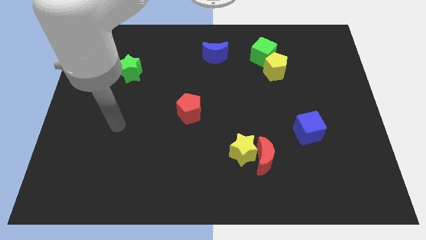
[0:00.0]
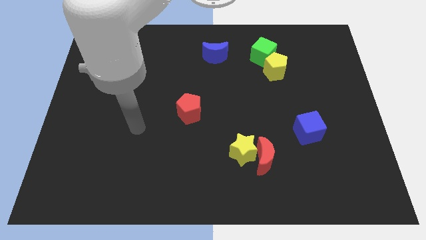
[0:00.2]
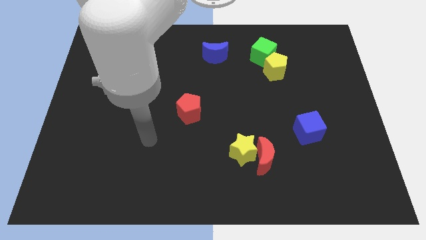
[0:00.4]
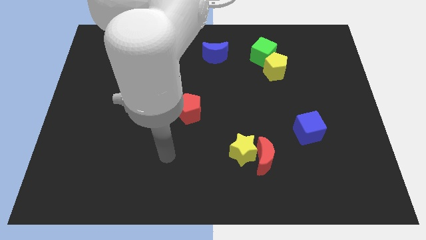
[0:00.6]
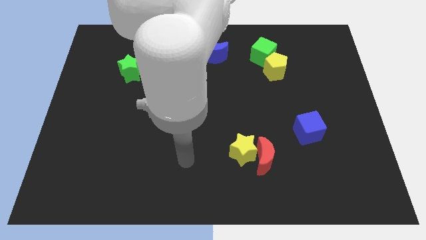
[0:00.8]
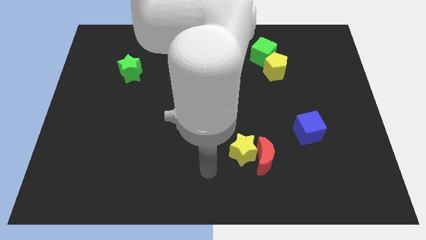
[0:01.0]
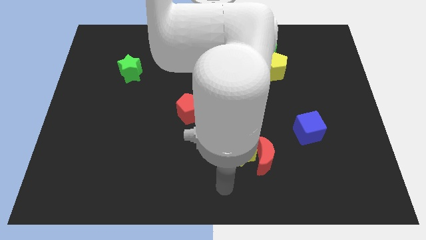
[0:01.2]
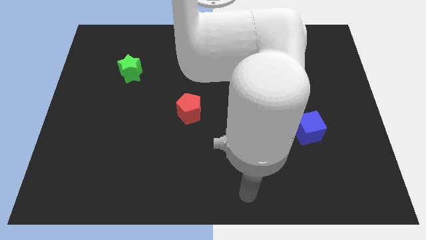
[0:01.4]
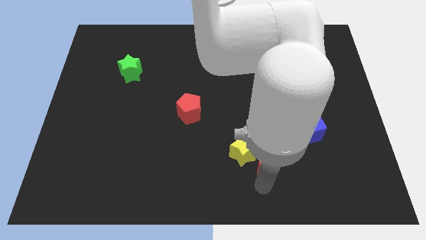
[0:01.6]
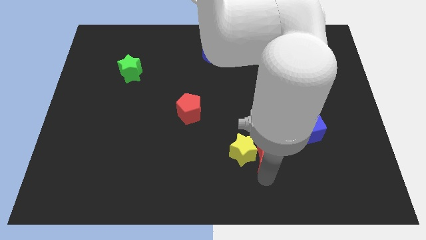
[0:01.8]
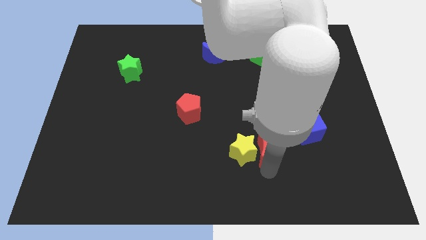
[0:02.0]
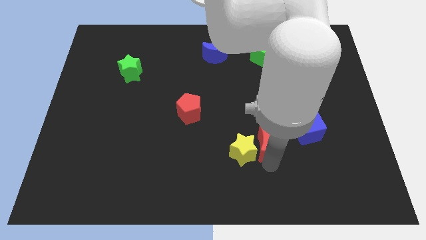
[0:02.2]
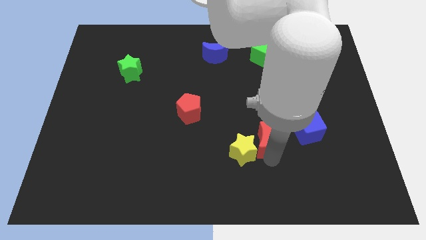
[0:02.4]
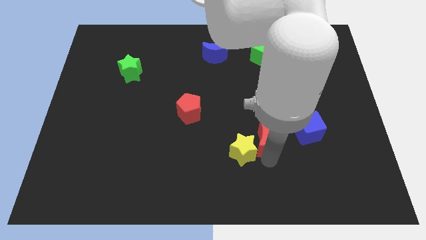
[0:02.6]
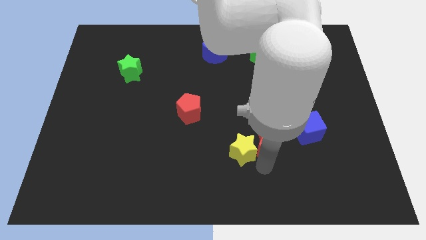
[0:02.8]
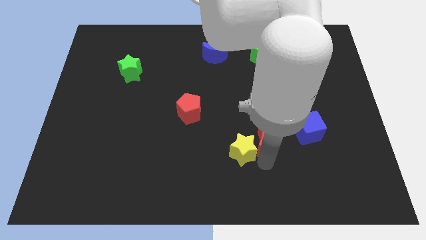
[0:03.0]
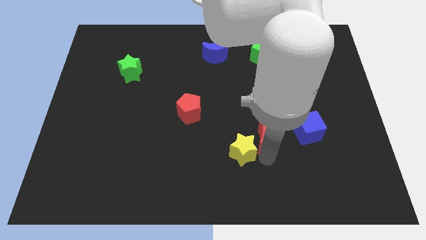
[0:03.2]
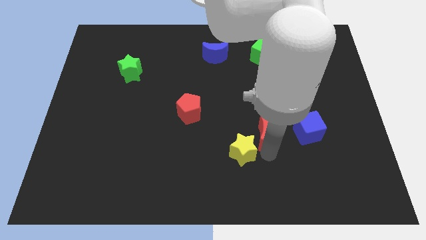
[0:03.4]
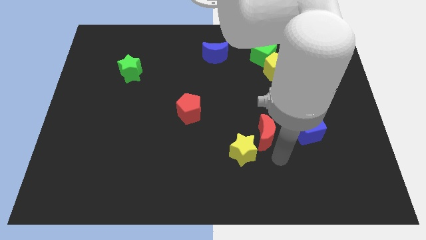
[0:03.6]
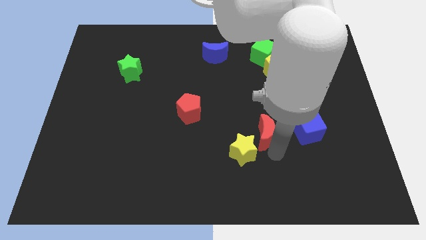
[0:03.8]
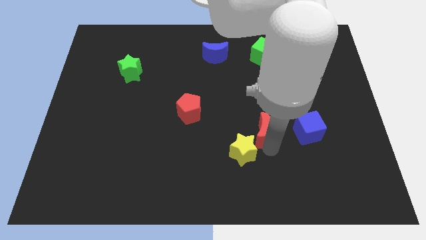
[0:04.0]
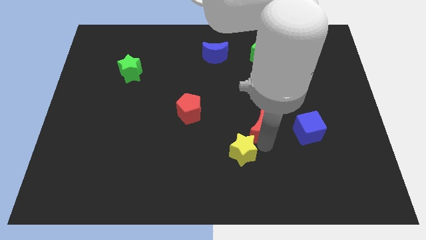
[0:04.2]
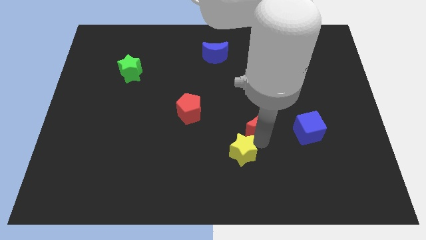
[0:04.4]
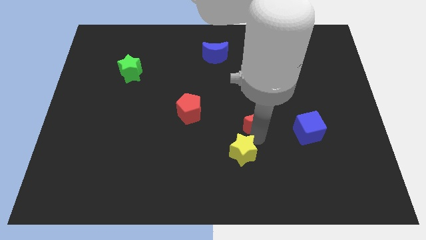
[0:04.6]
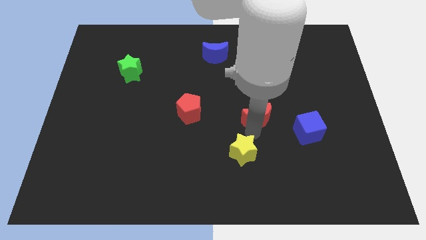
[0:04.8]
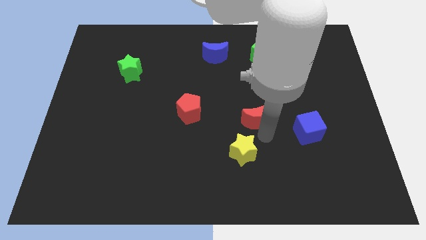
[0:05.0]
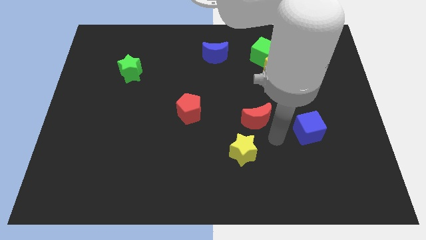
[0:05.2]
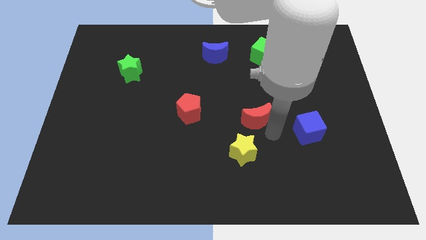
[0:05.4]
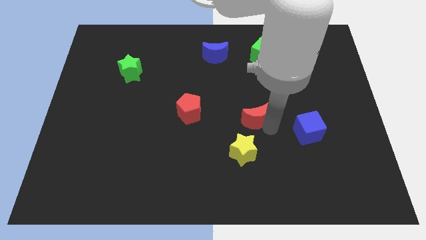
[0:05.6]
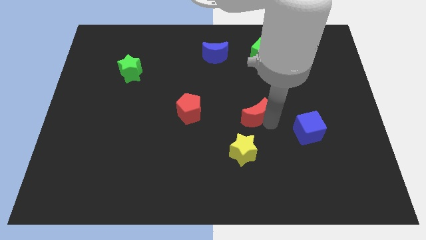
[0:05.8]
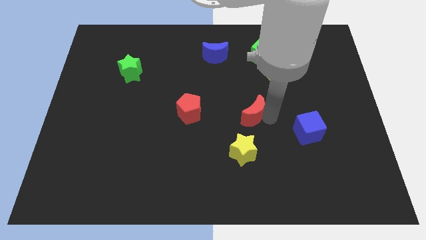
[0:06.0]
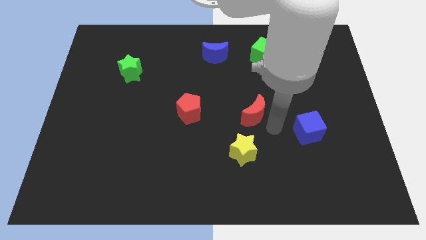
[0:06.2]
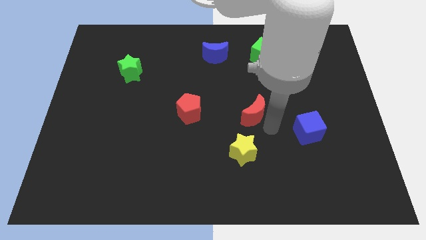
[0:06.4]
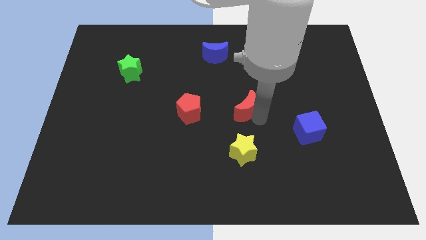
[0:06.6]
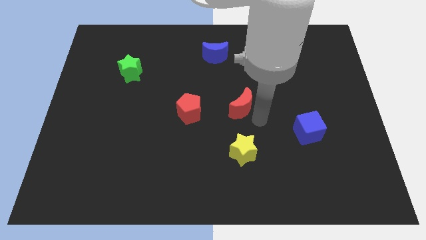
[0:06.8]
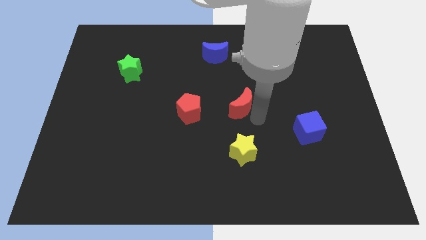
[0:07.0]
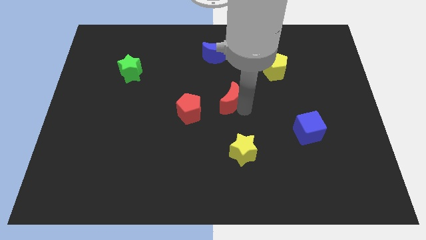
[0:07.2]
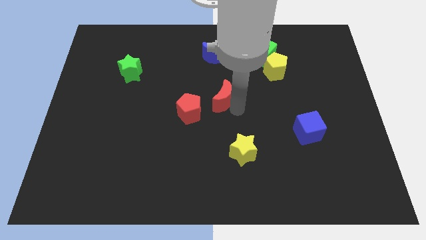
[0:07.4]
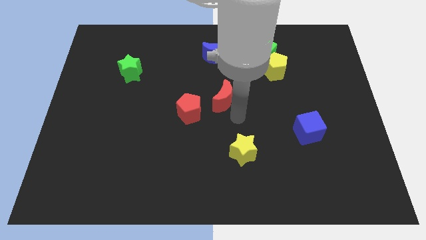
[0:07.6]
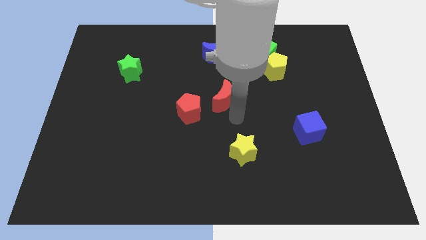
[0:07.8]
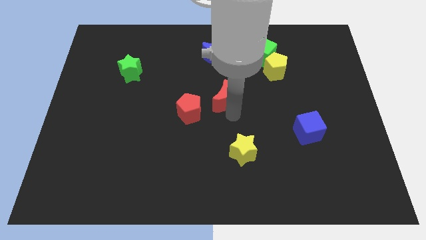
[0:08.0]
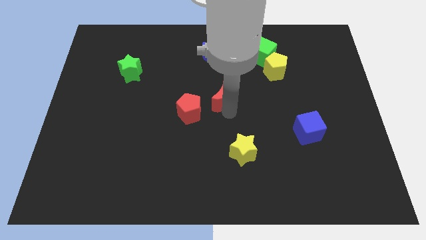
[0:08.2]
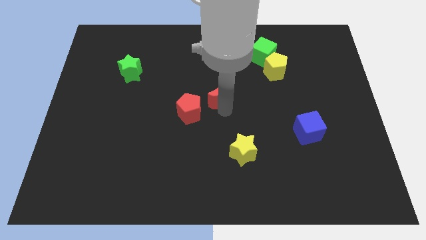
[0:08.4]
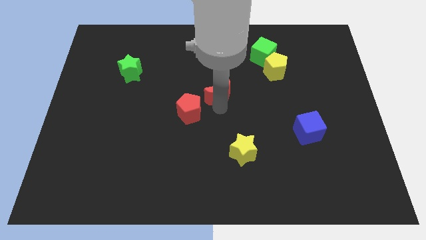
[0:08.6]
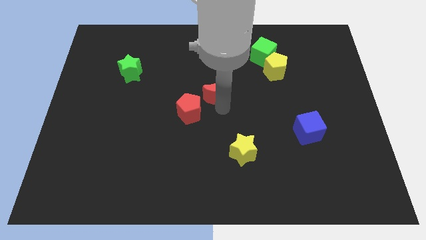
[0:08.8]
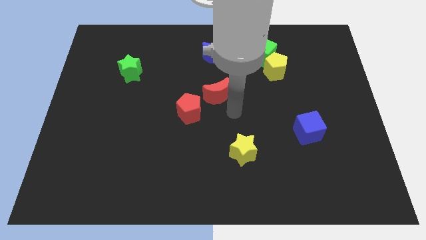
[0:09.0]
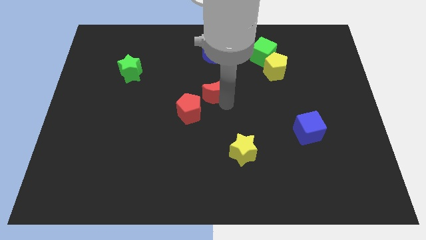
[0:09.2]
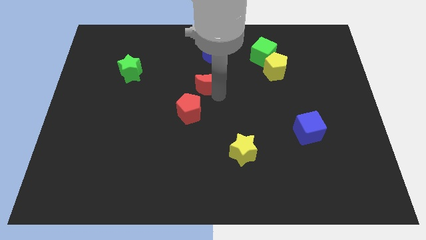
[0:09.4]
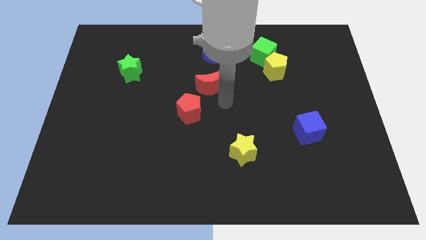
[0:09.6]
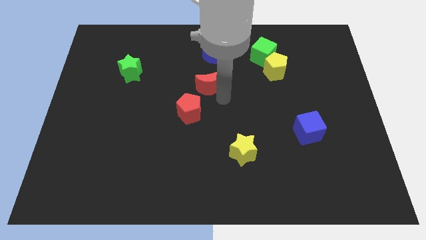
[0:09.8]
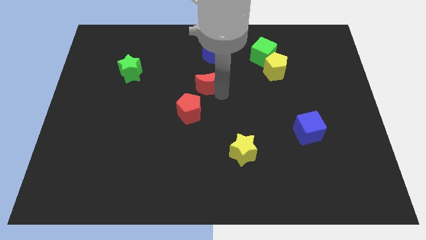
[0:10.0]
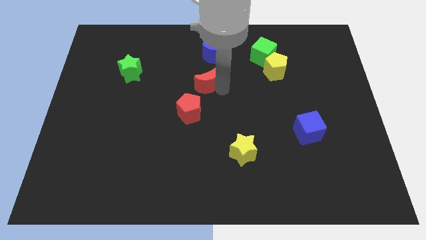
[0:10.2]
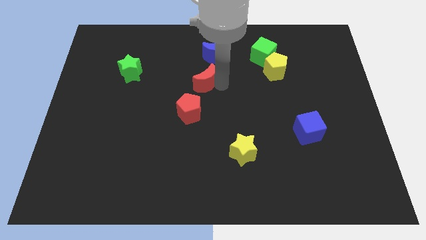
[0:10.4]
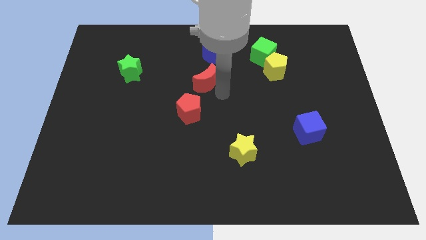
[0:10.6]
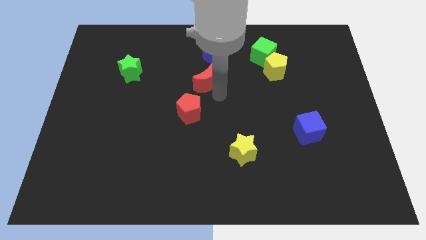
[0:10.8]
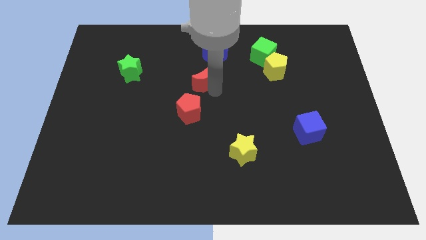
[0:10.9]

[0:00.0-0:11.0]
push the red moon diagonally down and to the left of the blue moon

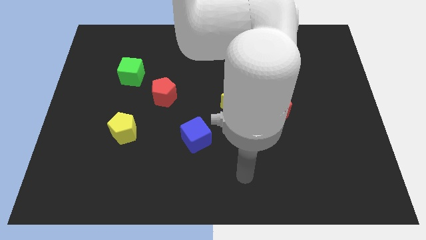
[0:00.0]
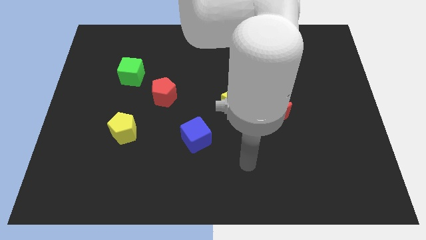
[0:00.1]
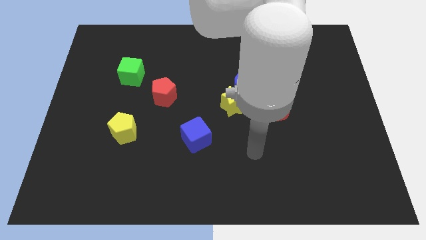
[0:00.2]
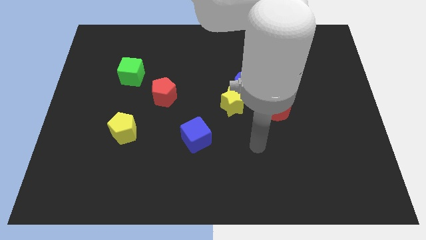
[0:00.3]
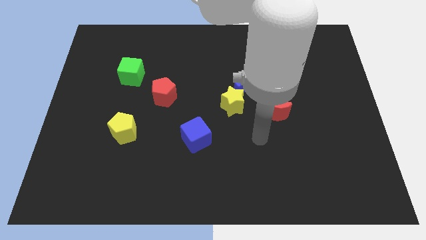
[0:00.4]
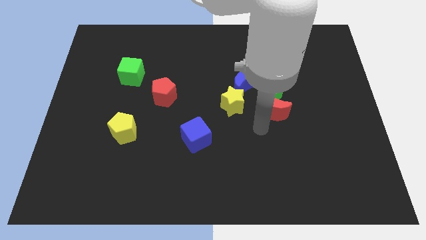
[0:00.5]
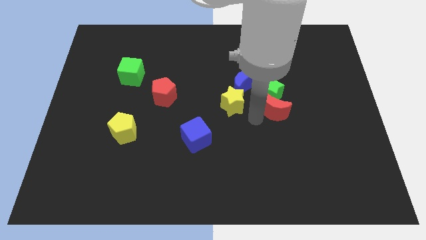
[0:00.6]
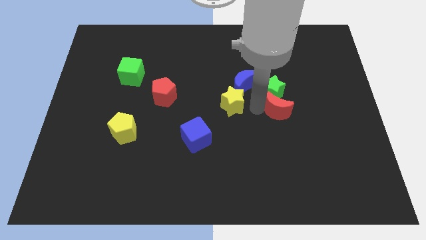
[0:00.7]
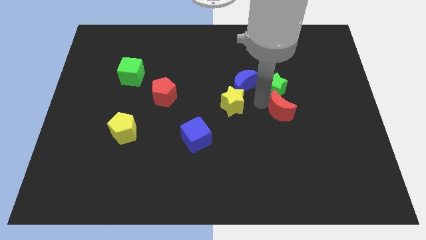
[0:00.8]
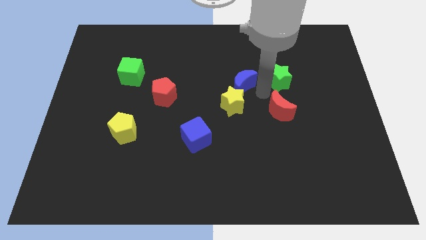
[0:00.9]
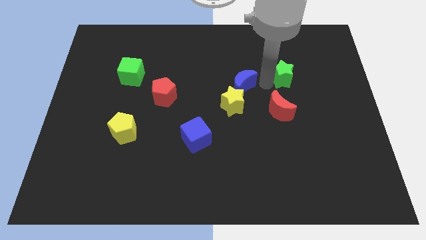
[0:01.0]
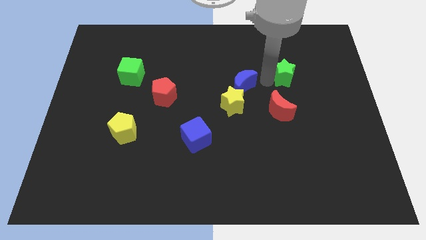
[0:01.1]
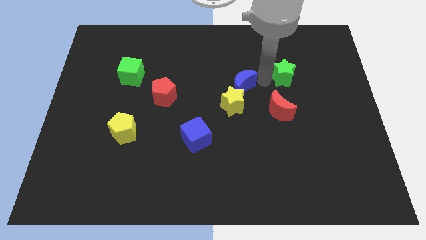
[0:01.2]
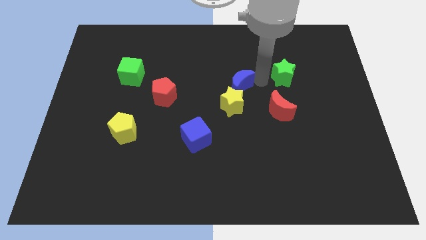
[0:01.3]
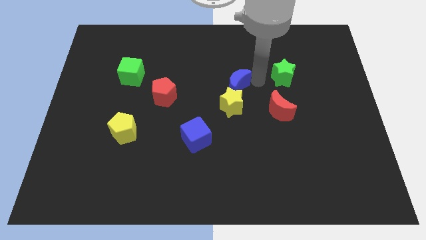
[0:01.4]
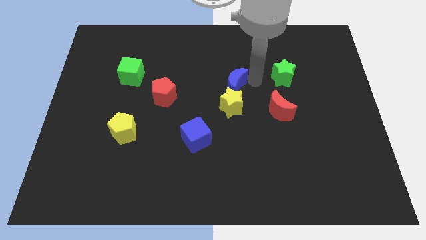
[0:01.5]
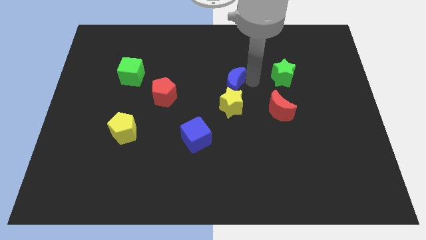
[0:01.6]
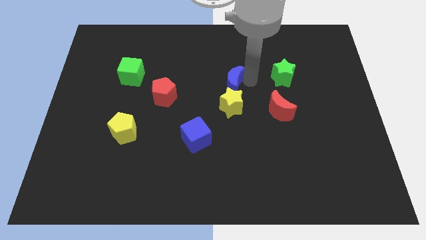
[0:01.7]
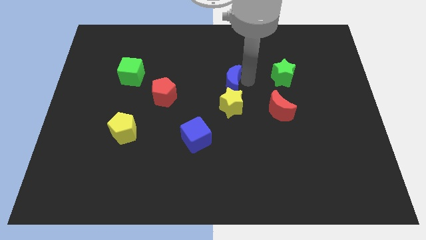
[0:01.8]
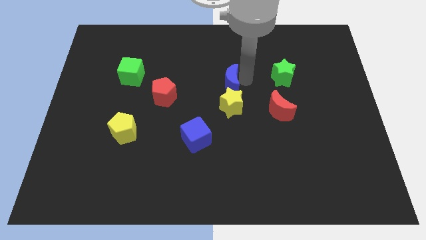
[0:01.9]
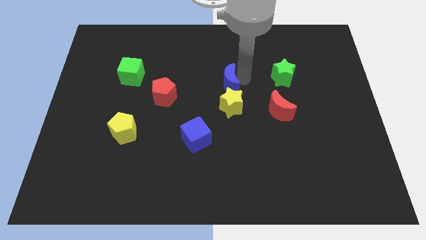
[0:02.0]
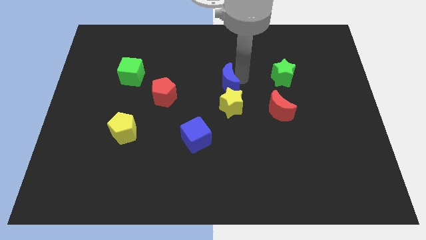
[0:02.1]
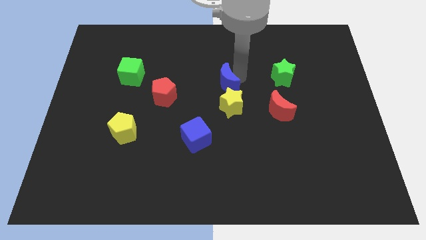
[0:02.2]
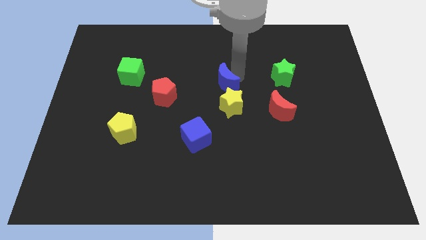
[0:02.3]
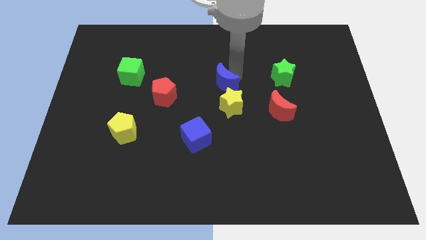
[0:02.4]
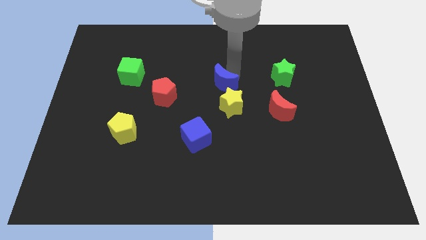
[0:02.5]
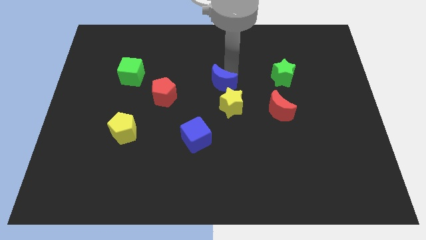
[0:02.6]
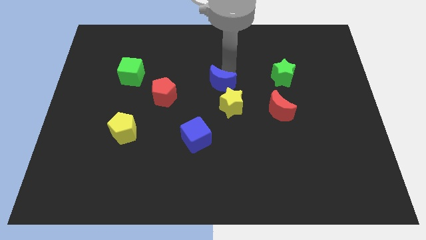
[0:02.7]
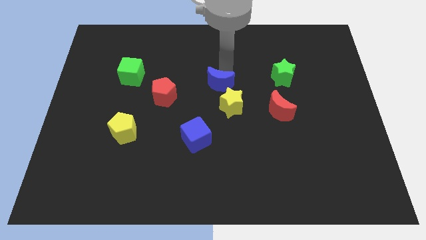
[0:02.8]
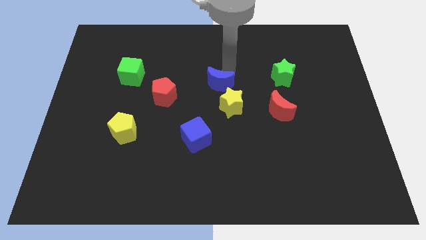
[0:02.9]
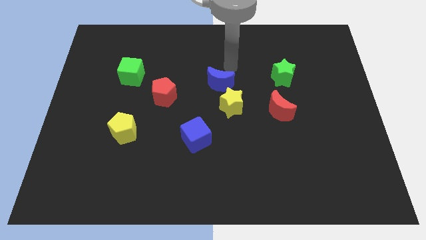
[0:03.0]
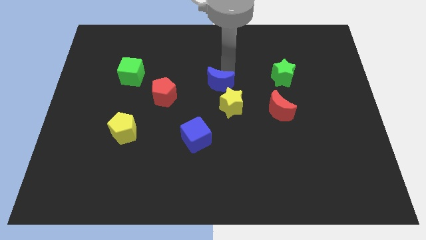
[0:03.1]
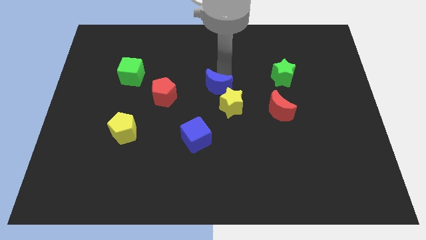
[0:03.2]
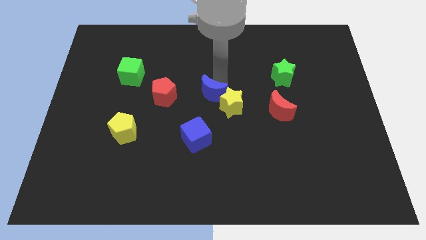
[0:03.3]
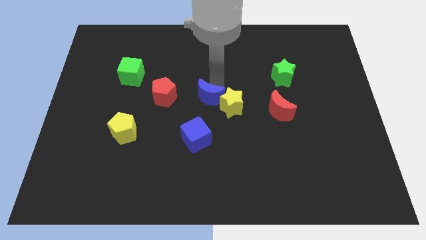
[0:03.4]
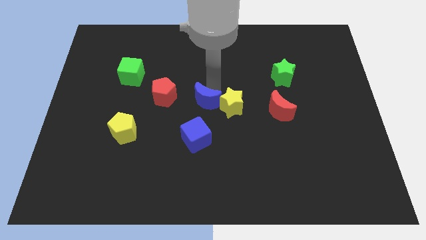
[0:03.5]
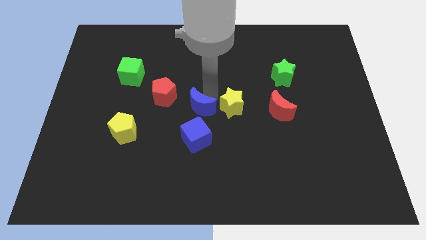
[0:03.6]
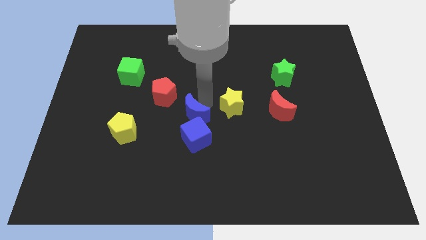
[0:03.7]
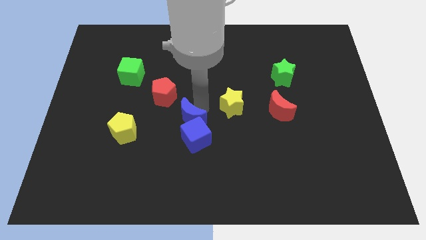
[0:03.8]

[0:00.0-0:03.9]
put the blue moon just right of the yellow pentagon
